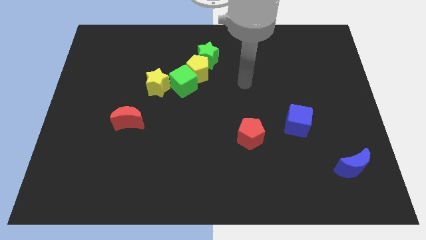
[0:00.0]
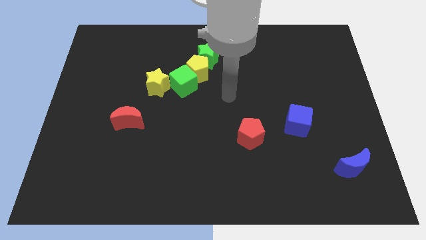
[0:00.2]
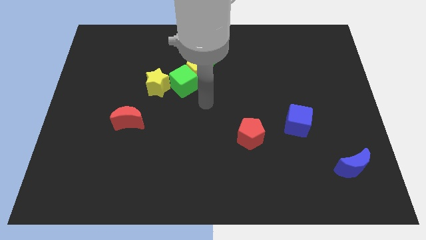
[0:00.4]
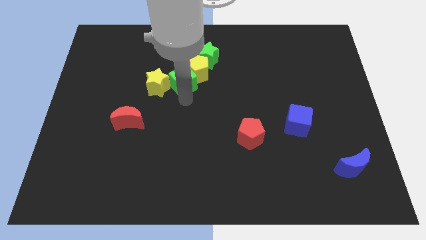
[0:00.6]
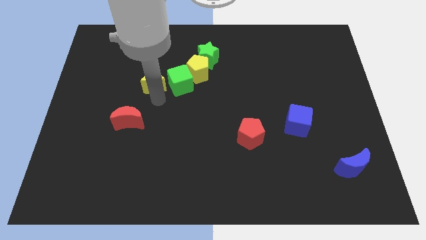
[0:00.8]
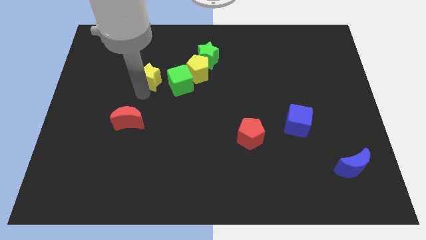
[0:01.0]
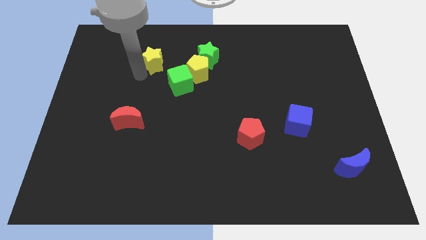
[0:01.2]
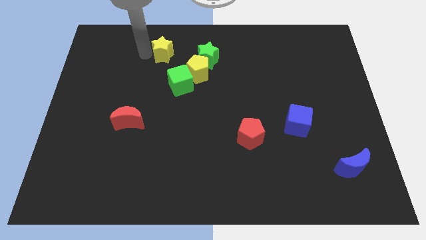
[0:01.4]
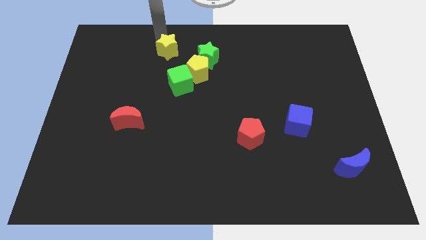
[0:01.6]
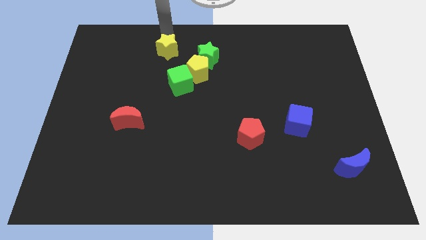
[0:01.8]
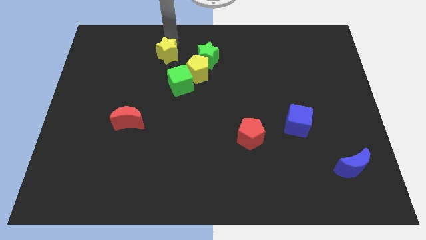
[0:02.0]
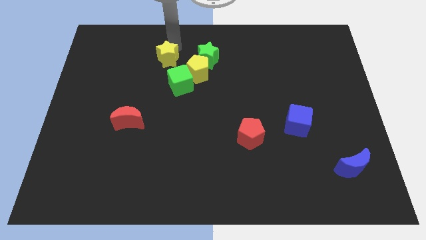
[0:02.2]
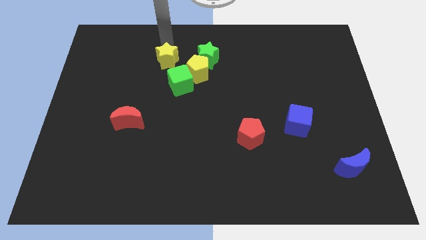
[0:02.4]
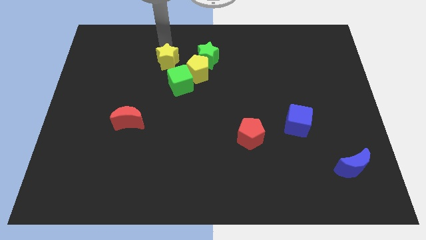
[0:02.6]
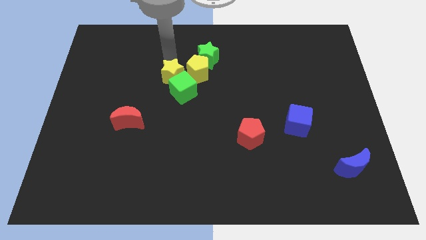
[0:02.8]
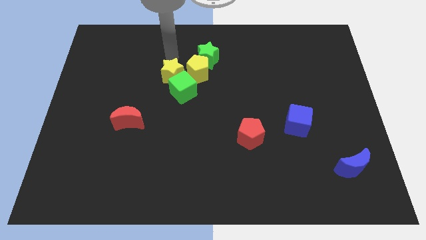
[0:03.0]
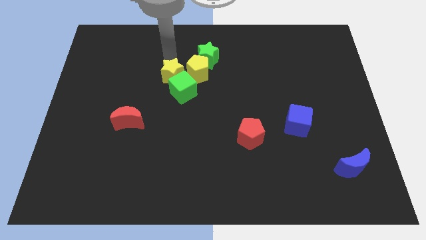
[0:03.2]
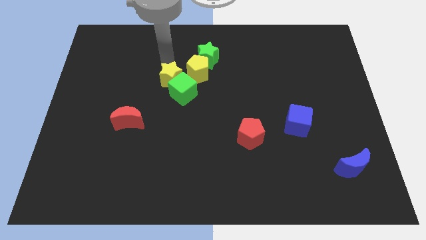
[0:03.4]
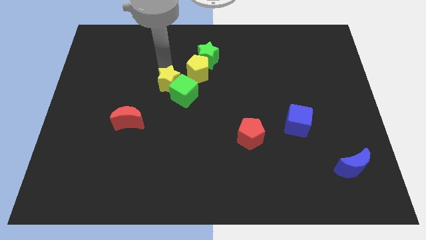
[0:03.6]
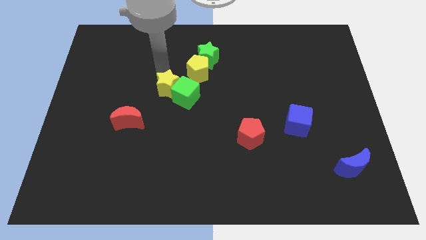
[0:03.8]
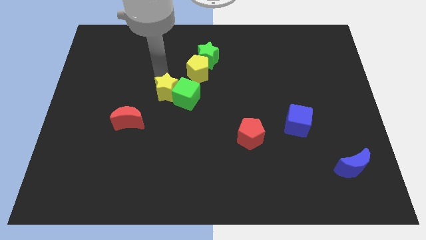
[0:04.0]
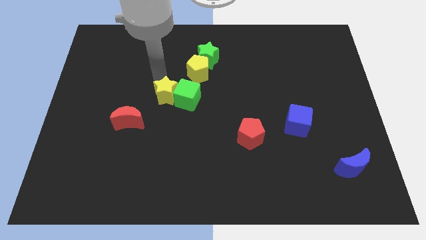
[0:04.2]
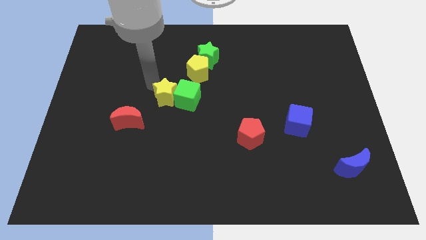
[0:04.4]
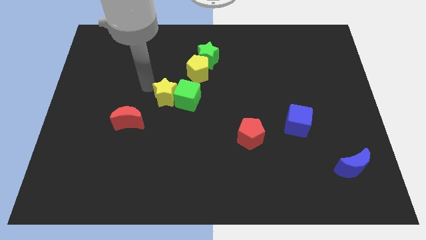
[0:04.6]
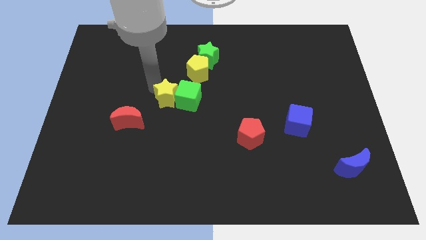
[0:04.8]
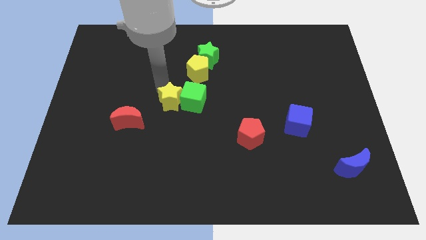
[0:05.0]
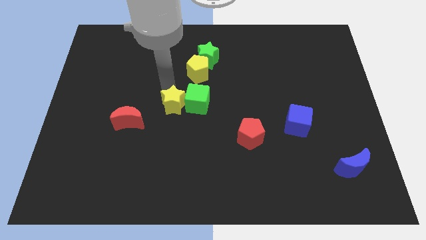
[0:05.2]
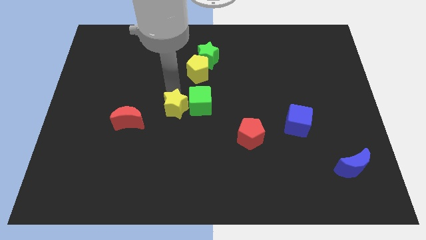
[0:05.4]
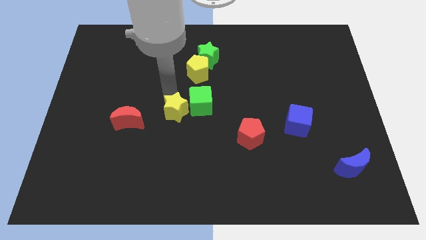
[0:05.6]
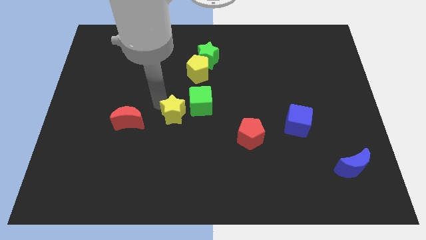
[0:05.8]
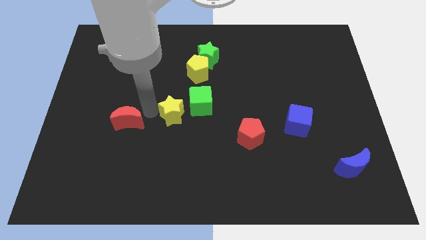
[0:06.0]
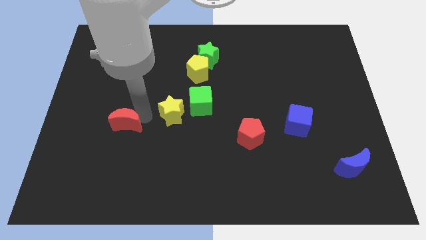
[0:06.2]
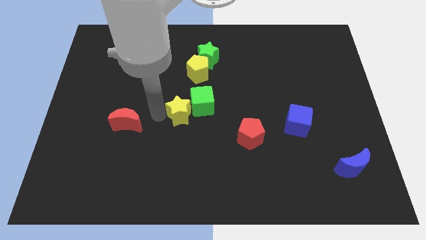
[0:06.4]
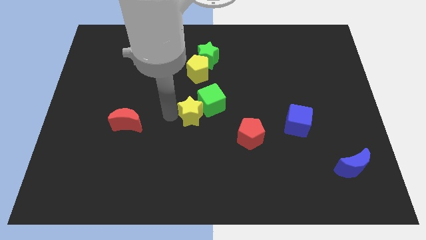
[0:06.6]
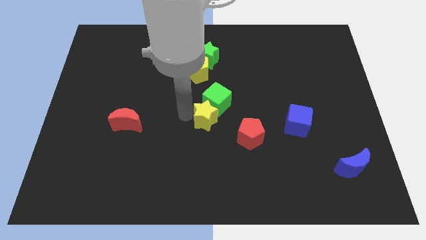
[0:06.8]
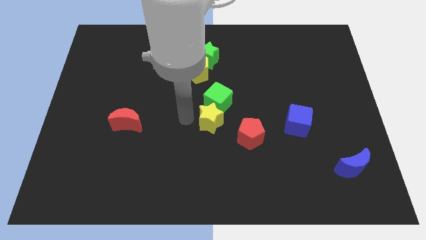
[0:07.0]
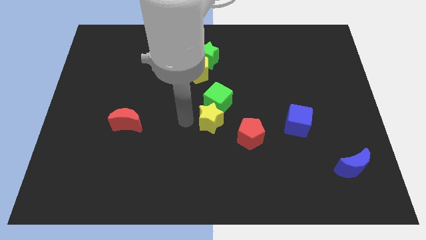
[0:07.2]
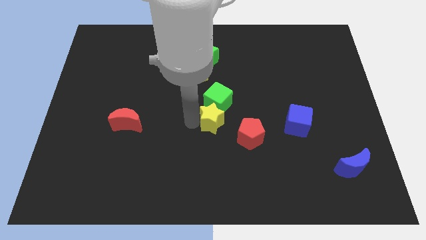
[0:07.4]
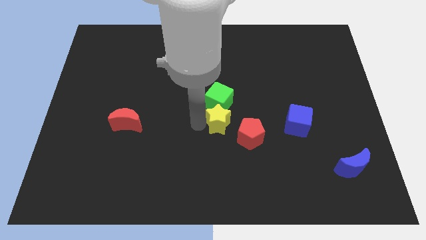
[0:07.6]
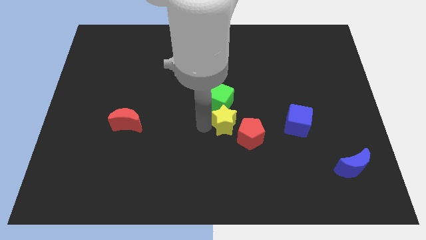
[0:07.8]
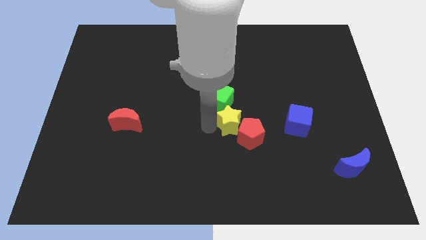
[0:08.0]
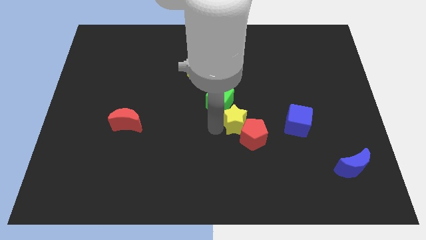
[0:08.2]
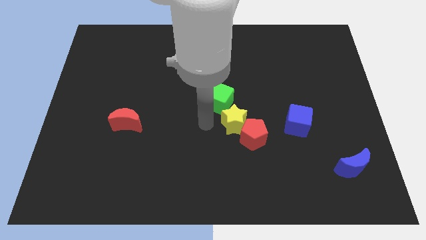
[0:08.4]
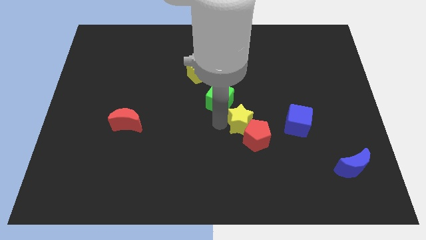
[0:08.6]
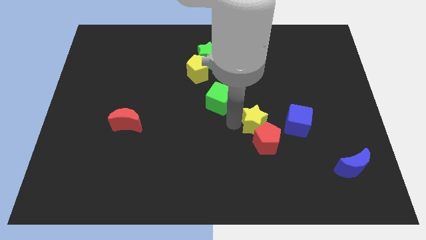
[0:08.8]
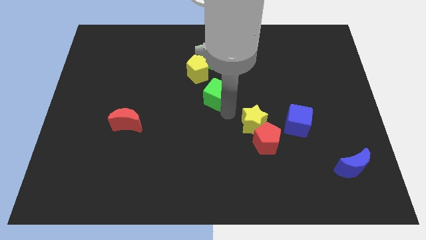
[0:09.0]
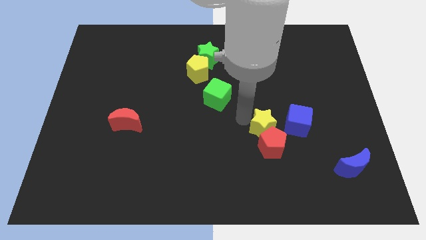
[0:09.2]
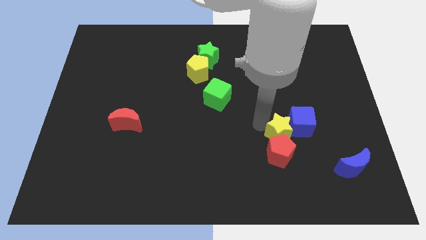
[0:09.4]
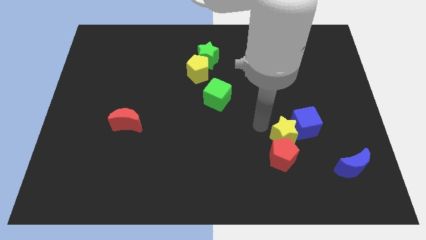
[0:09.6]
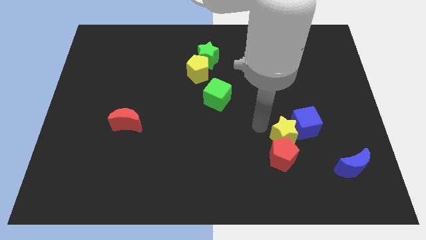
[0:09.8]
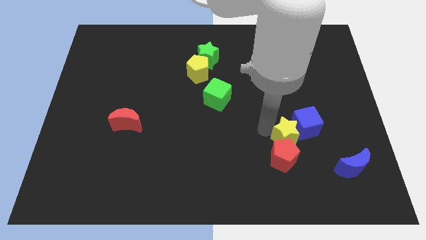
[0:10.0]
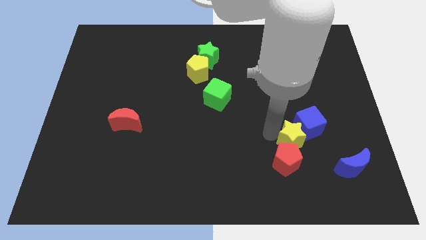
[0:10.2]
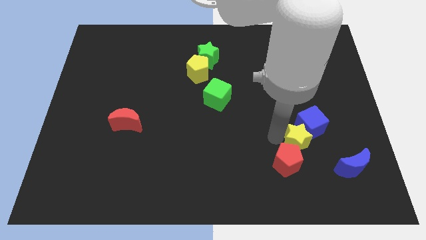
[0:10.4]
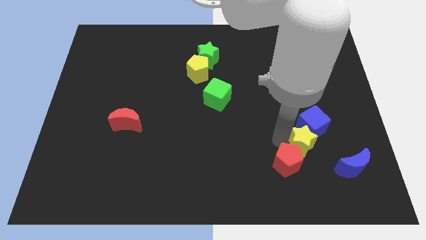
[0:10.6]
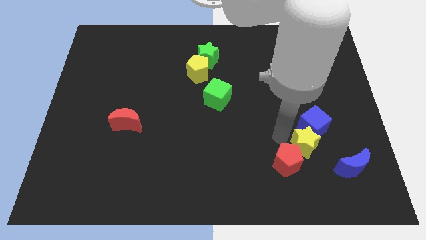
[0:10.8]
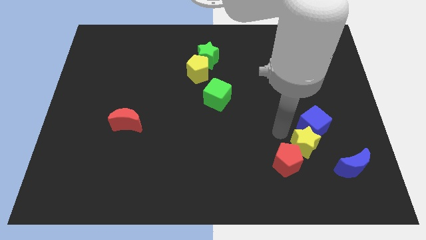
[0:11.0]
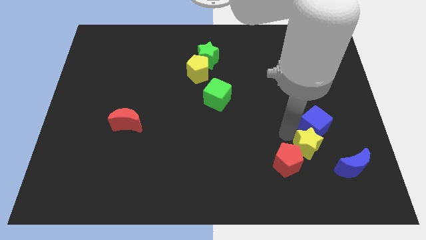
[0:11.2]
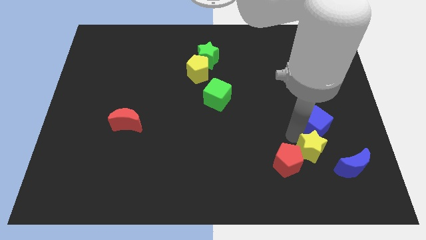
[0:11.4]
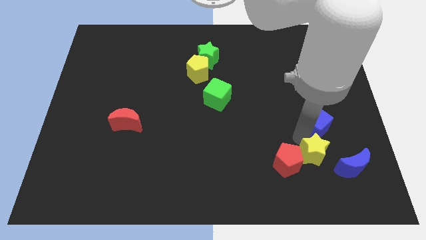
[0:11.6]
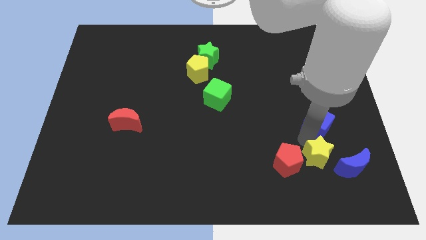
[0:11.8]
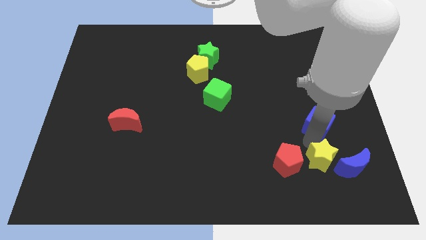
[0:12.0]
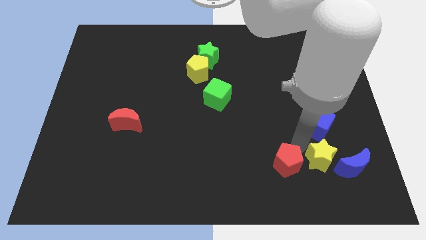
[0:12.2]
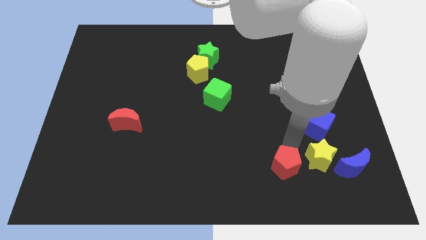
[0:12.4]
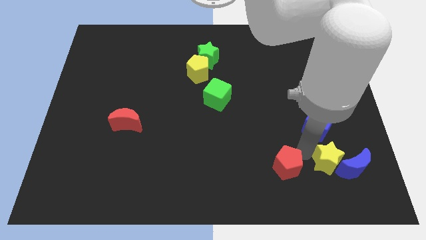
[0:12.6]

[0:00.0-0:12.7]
put the yellow star close to the blue moon

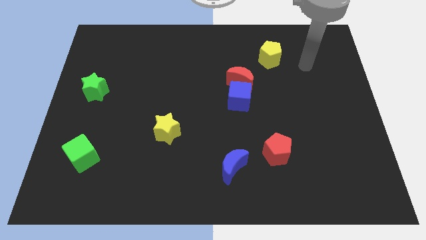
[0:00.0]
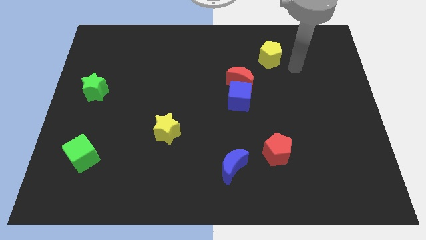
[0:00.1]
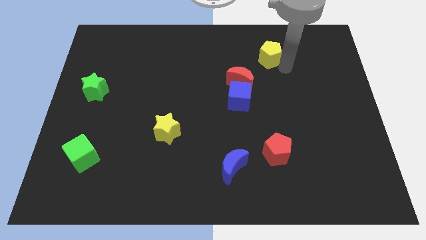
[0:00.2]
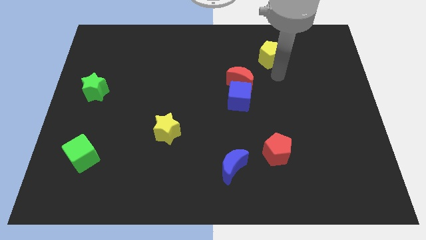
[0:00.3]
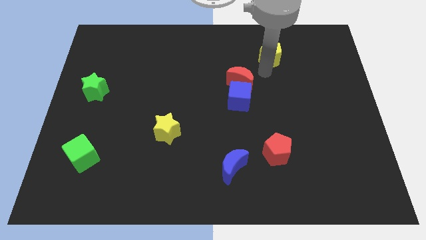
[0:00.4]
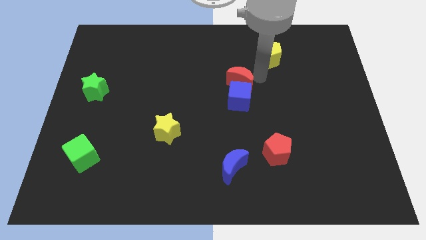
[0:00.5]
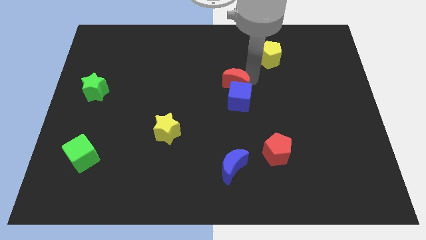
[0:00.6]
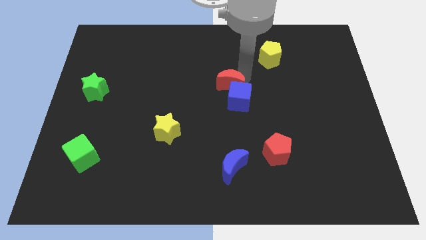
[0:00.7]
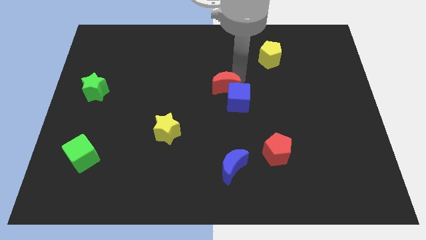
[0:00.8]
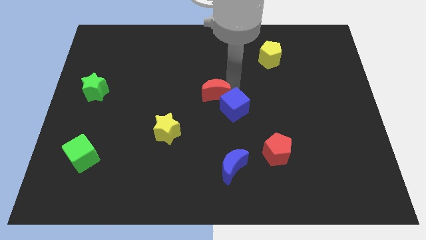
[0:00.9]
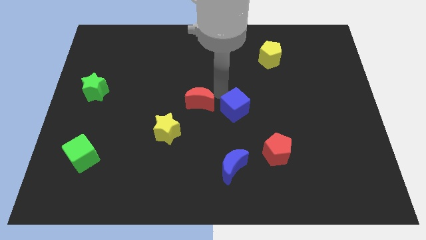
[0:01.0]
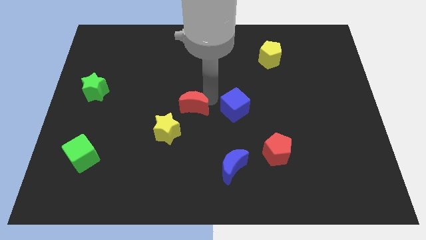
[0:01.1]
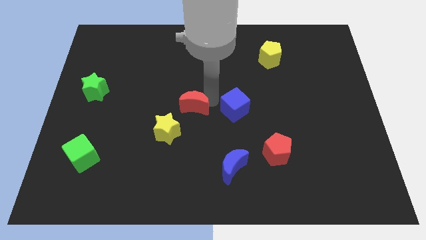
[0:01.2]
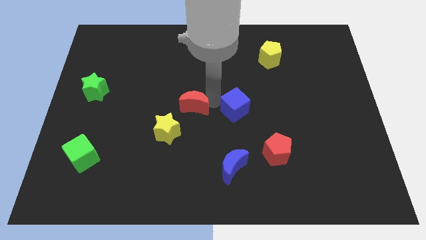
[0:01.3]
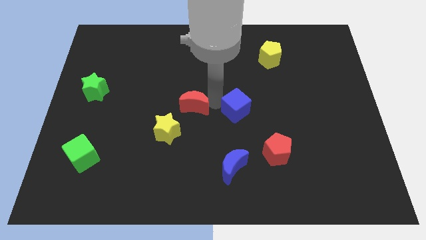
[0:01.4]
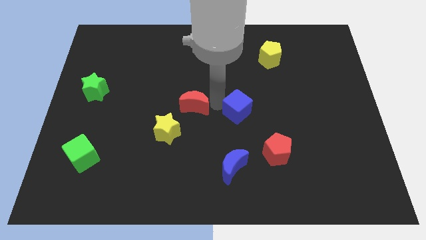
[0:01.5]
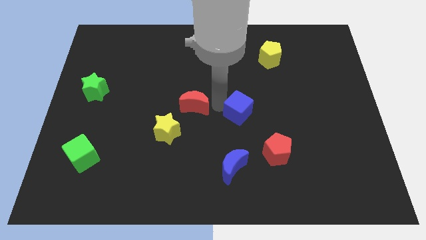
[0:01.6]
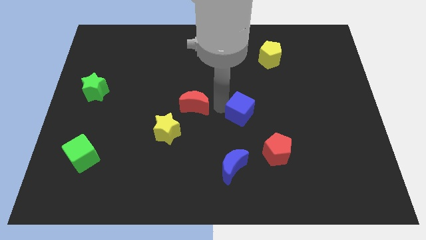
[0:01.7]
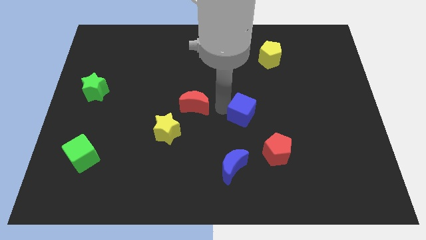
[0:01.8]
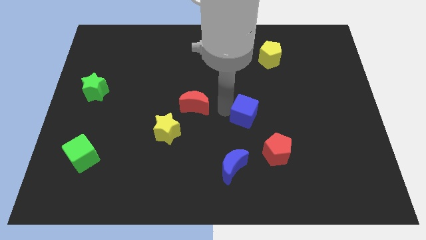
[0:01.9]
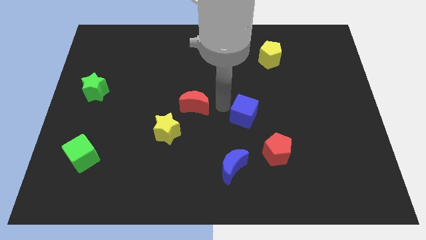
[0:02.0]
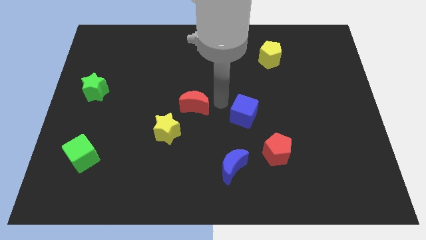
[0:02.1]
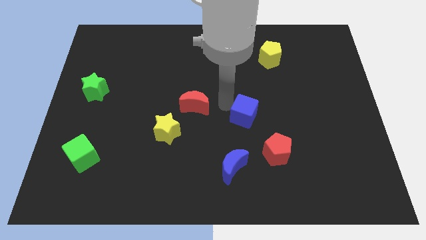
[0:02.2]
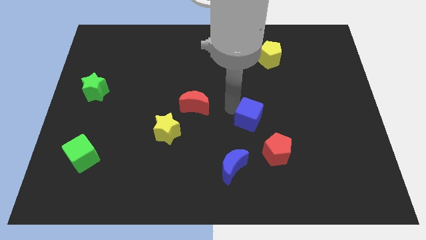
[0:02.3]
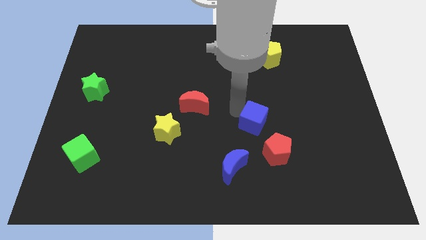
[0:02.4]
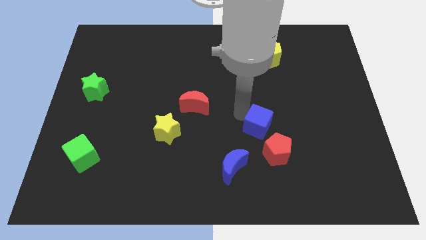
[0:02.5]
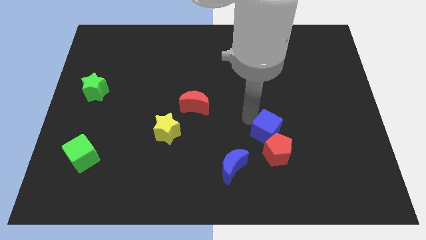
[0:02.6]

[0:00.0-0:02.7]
push the blue cube to the red pentagon
